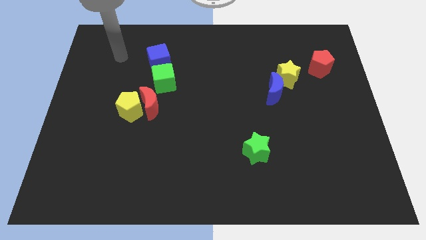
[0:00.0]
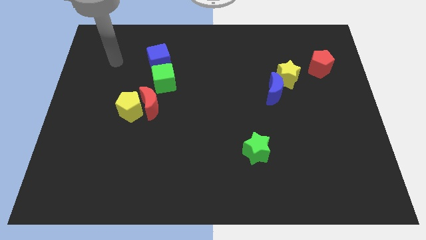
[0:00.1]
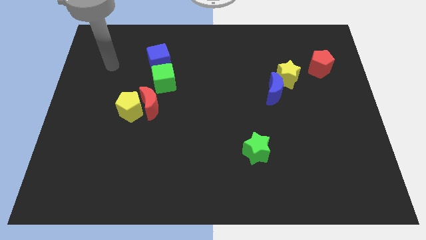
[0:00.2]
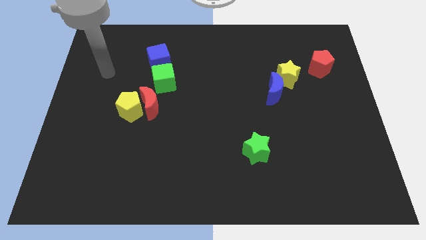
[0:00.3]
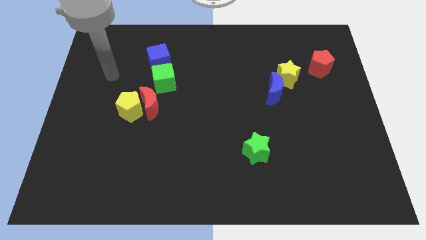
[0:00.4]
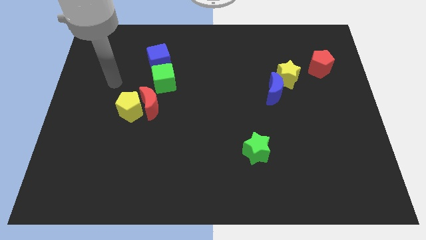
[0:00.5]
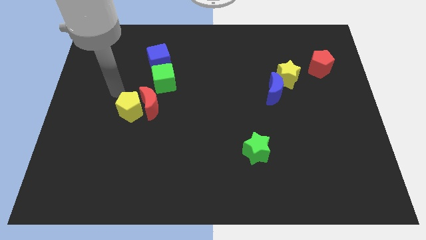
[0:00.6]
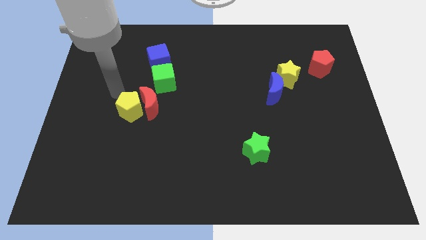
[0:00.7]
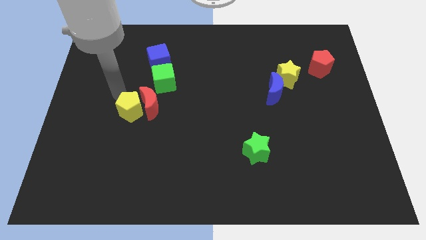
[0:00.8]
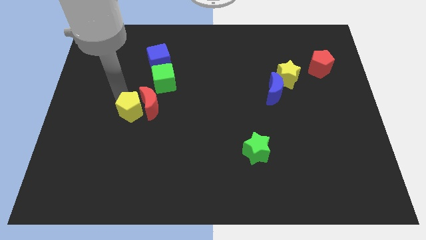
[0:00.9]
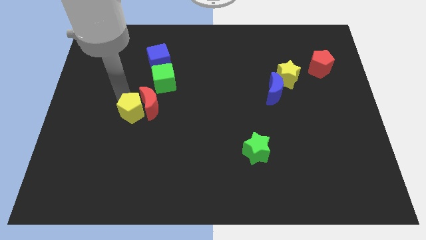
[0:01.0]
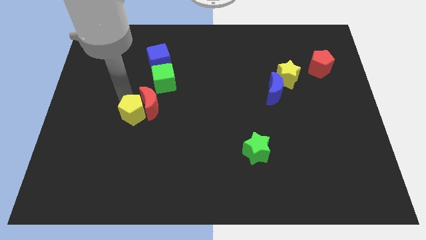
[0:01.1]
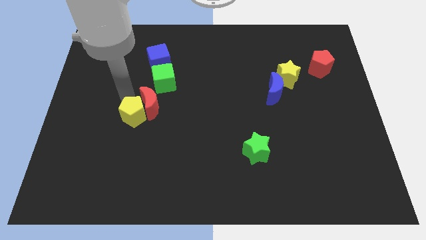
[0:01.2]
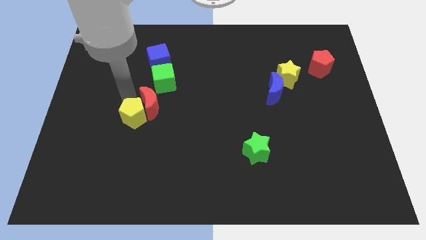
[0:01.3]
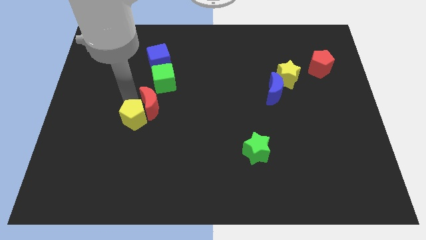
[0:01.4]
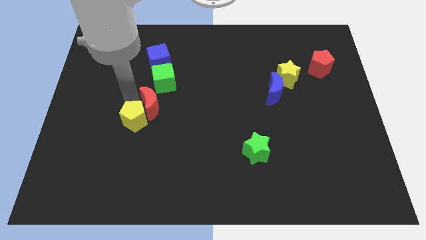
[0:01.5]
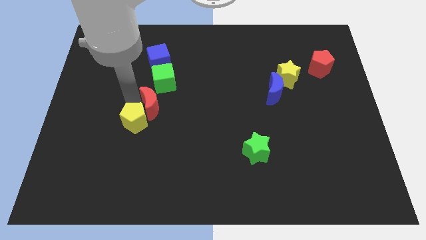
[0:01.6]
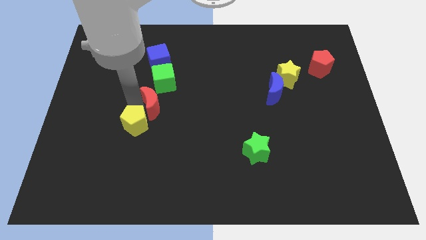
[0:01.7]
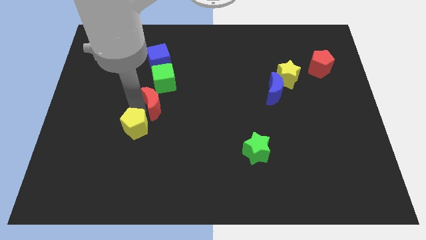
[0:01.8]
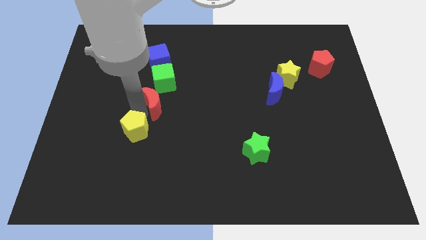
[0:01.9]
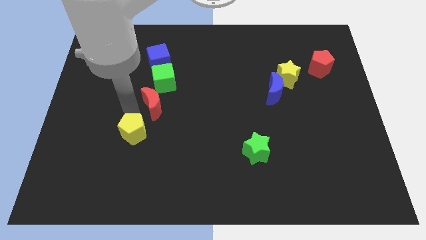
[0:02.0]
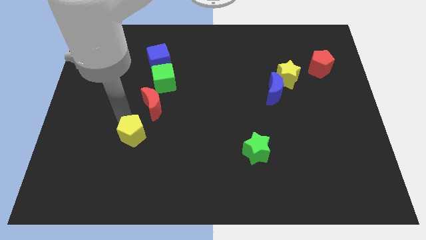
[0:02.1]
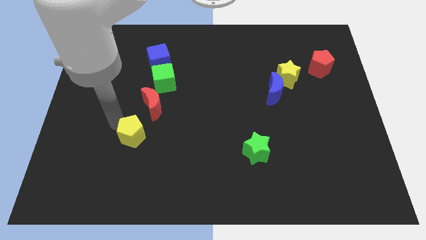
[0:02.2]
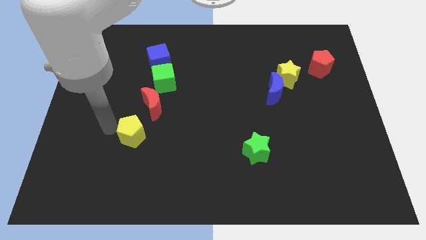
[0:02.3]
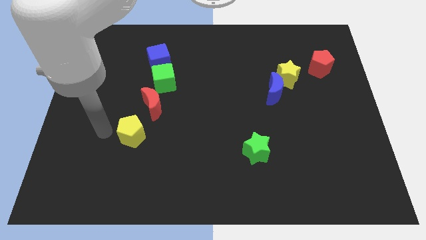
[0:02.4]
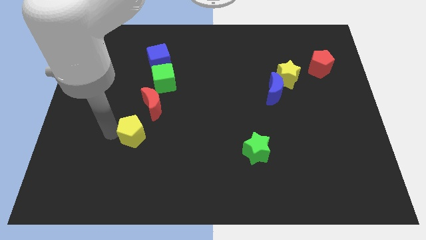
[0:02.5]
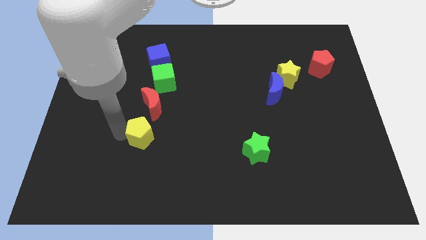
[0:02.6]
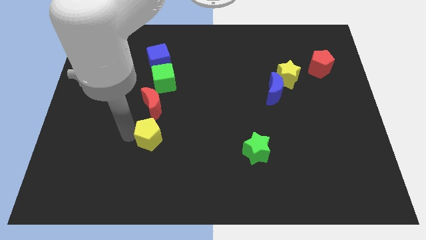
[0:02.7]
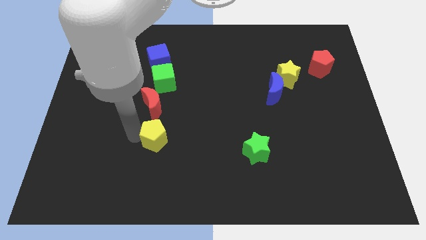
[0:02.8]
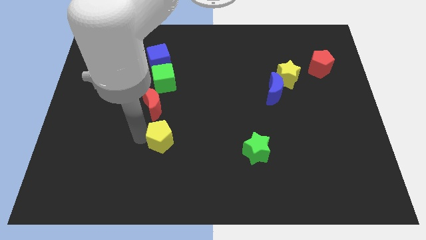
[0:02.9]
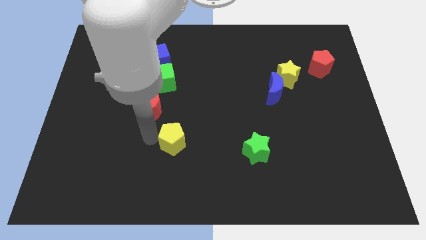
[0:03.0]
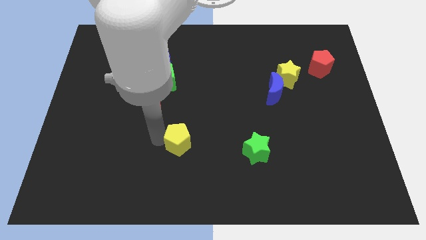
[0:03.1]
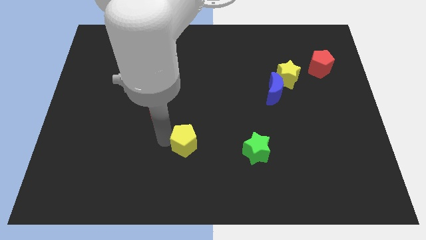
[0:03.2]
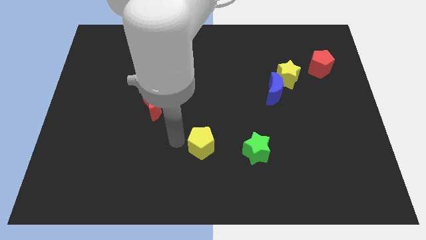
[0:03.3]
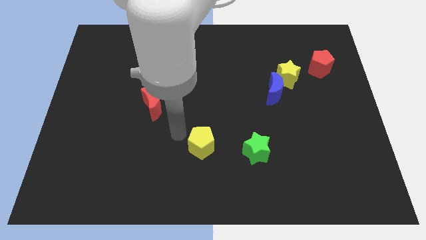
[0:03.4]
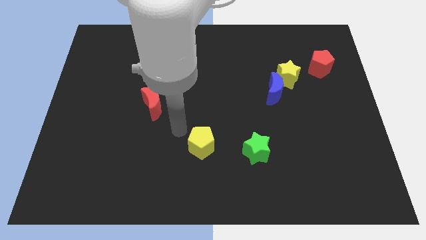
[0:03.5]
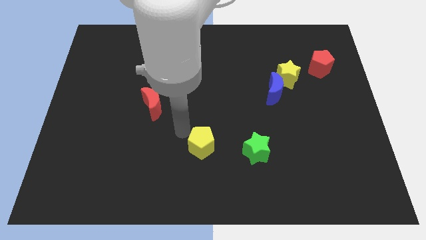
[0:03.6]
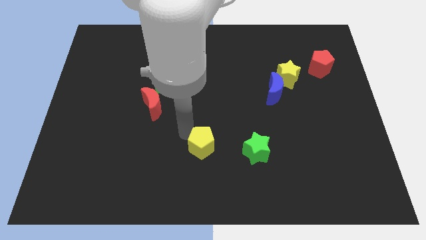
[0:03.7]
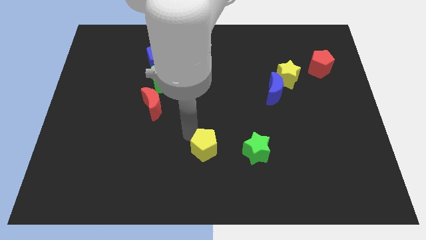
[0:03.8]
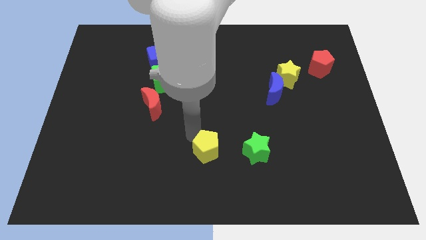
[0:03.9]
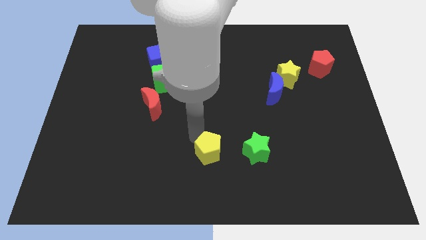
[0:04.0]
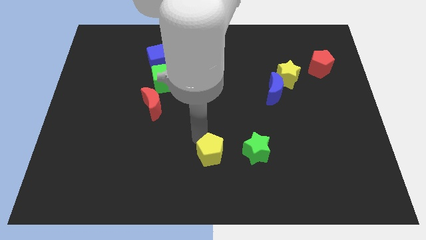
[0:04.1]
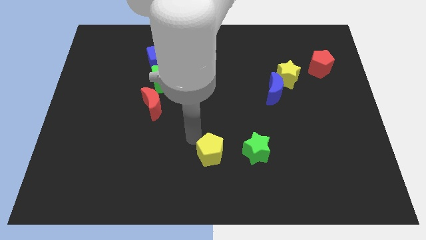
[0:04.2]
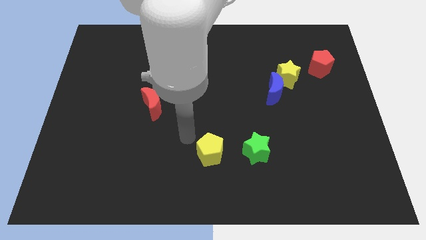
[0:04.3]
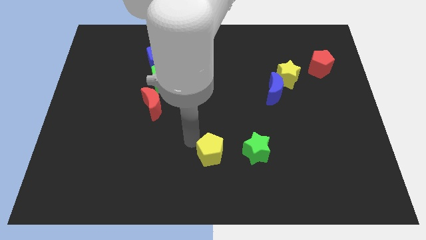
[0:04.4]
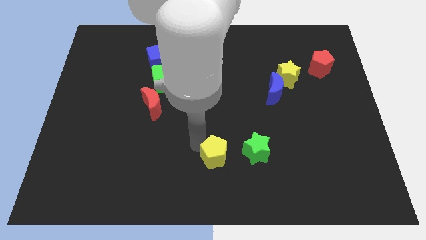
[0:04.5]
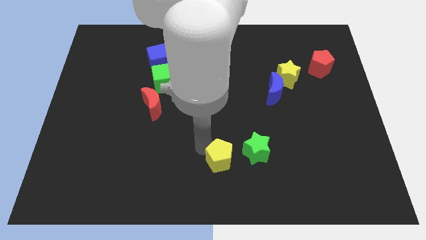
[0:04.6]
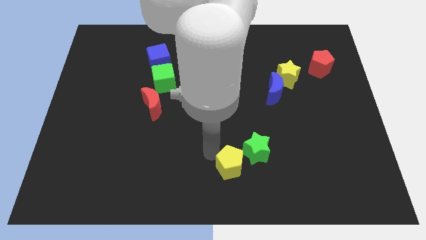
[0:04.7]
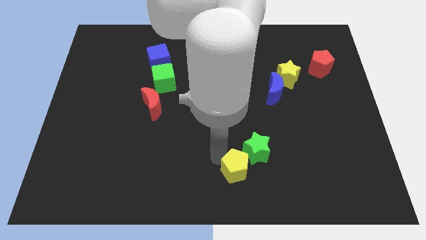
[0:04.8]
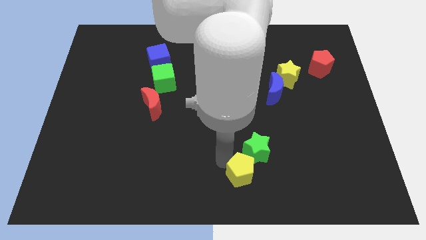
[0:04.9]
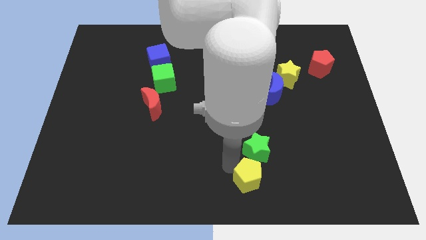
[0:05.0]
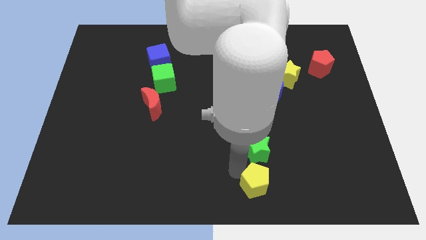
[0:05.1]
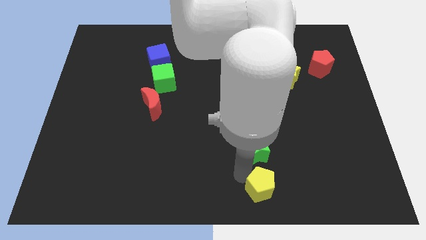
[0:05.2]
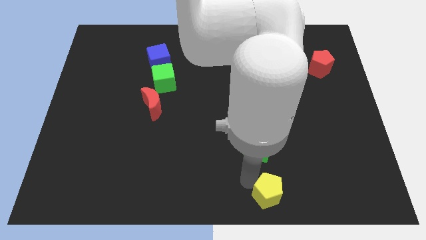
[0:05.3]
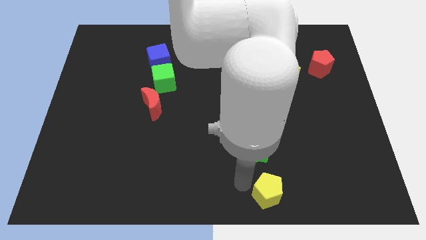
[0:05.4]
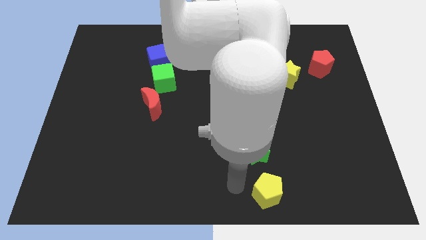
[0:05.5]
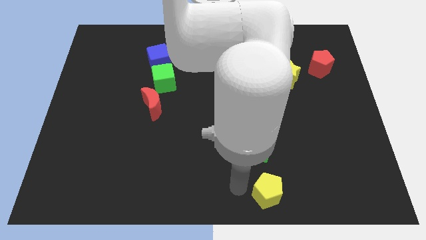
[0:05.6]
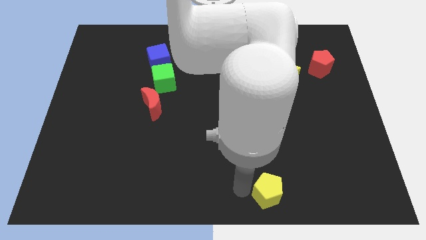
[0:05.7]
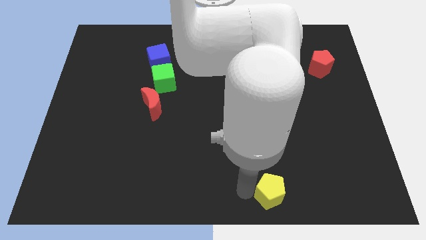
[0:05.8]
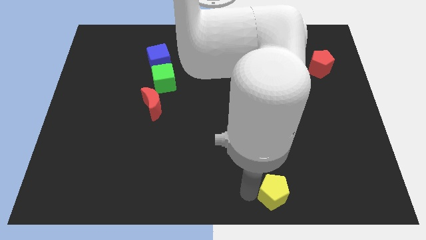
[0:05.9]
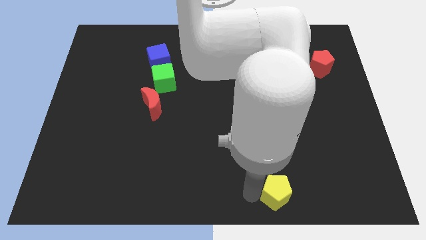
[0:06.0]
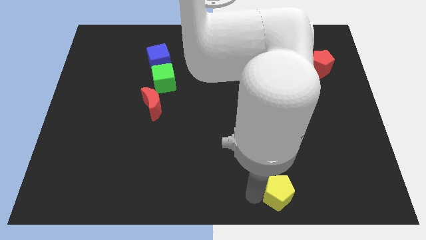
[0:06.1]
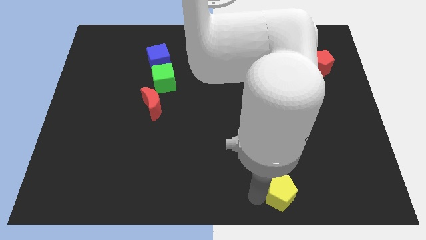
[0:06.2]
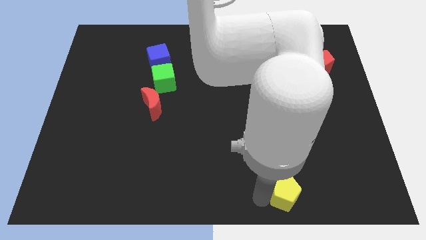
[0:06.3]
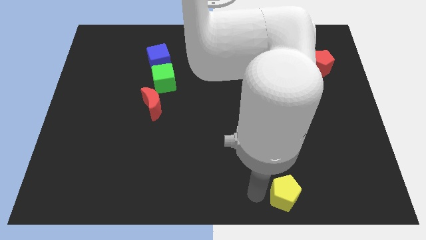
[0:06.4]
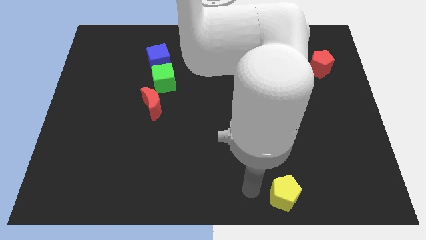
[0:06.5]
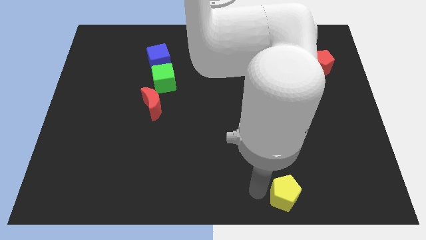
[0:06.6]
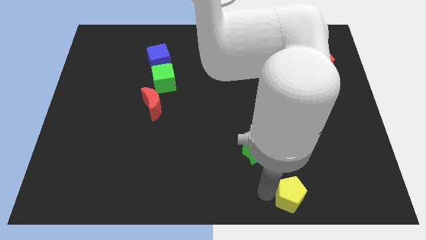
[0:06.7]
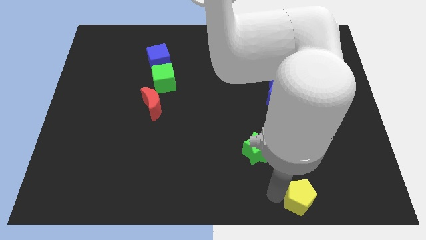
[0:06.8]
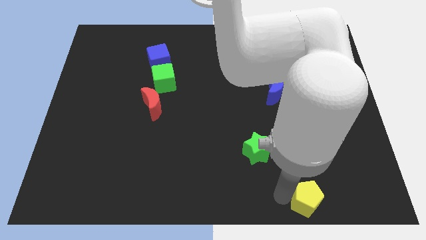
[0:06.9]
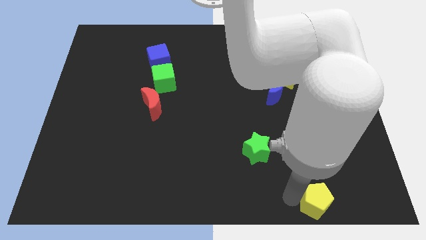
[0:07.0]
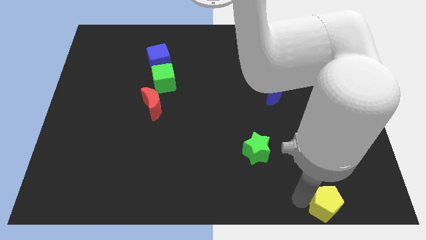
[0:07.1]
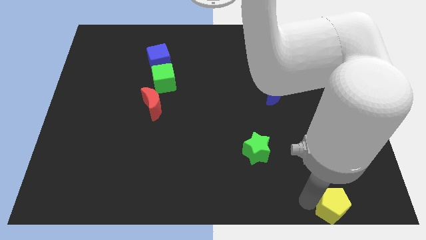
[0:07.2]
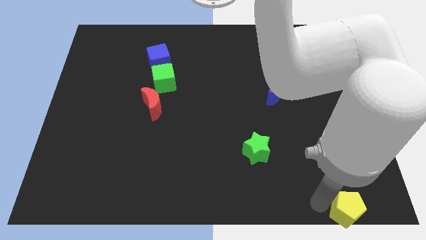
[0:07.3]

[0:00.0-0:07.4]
push the yellow pentagon to the bottom right of the board
